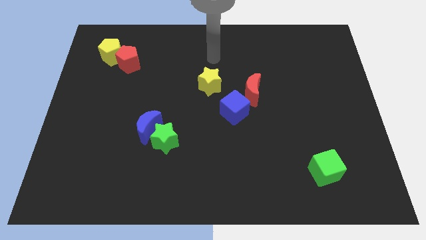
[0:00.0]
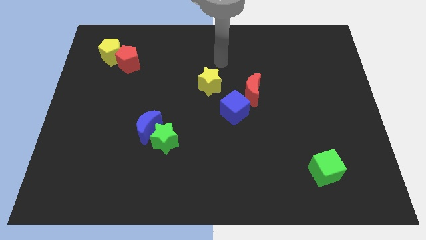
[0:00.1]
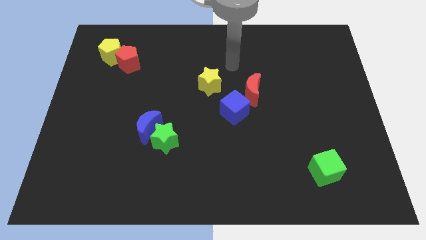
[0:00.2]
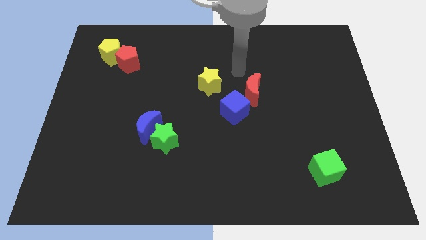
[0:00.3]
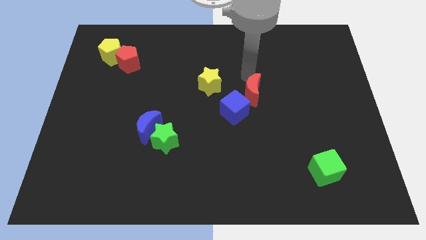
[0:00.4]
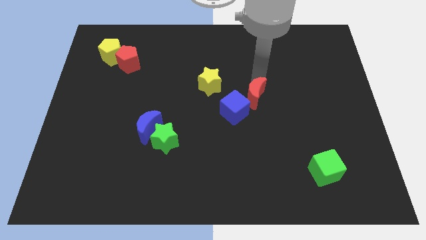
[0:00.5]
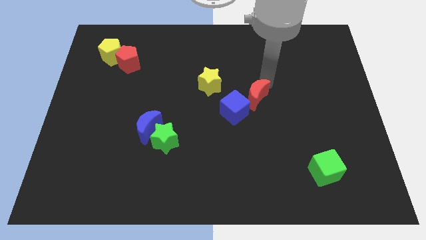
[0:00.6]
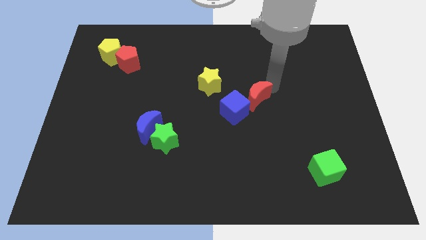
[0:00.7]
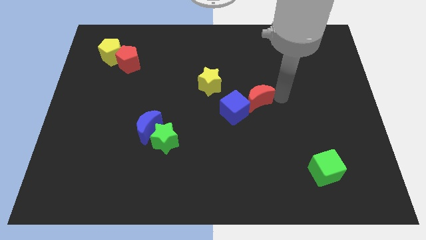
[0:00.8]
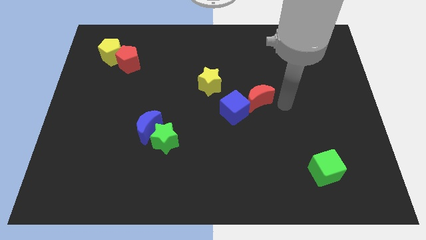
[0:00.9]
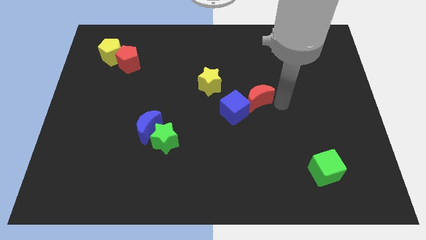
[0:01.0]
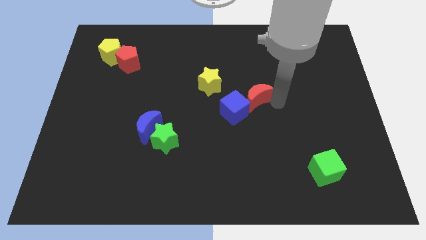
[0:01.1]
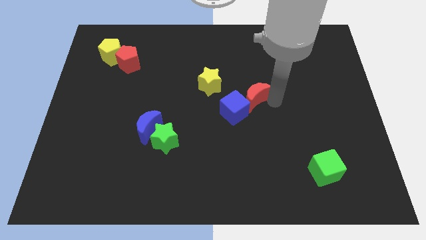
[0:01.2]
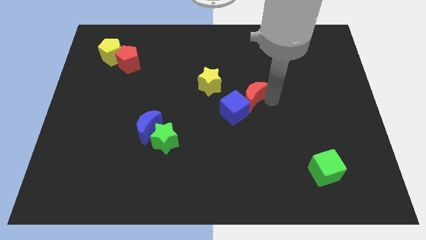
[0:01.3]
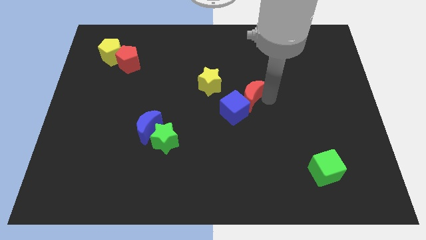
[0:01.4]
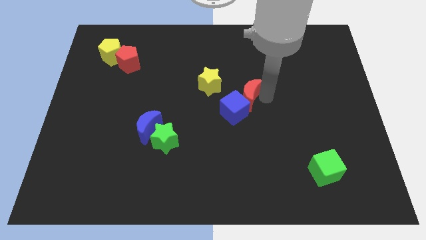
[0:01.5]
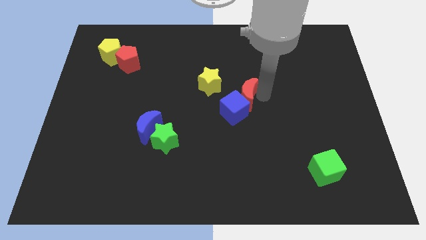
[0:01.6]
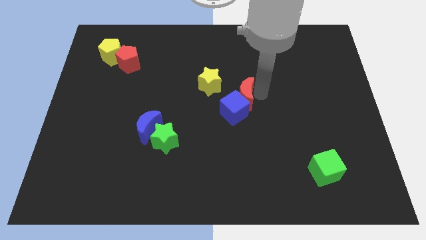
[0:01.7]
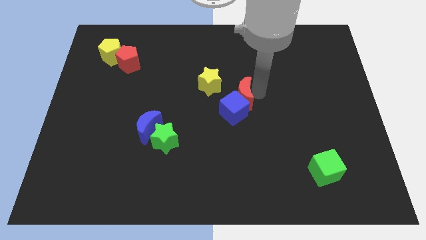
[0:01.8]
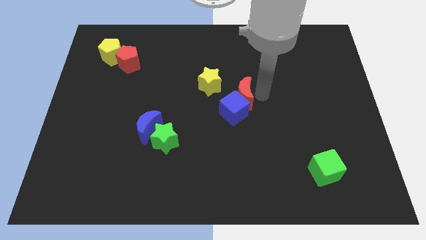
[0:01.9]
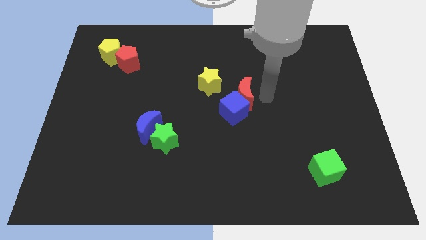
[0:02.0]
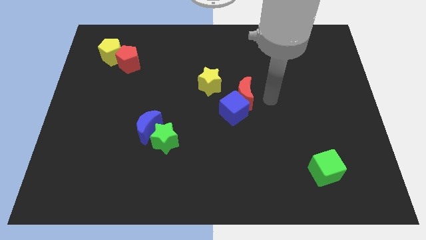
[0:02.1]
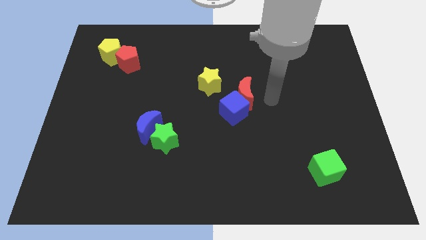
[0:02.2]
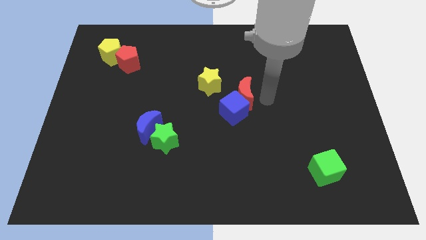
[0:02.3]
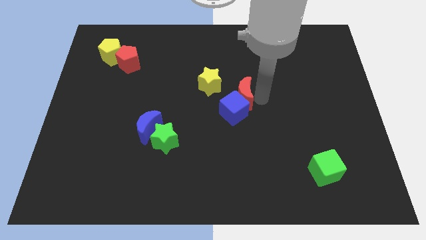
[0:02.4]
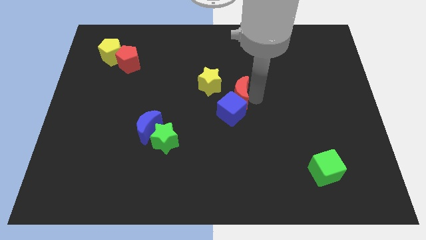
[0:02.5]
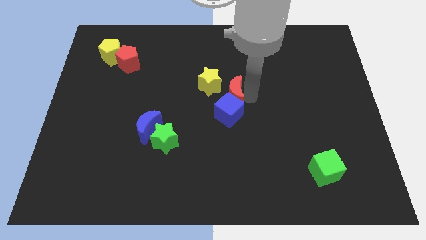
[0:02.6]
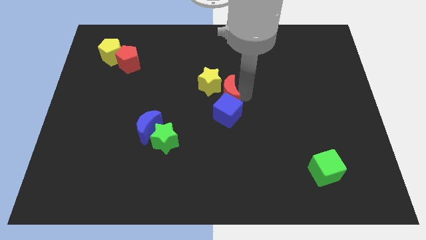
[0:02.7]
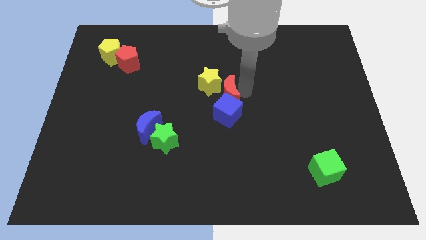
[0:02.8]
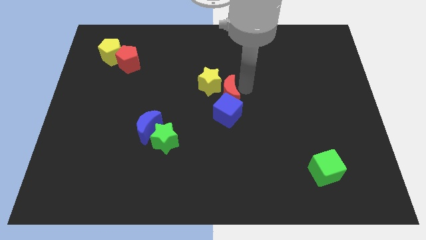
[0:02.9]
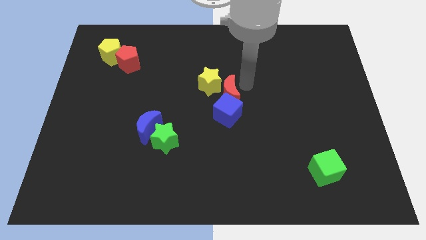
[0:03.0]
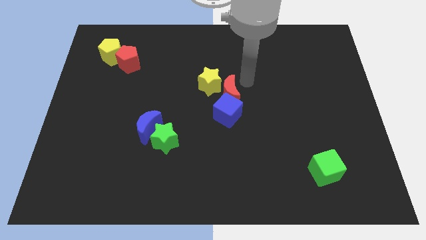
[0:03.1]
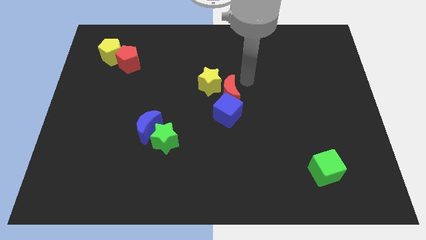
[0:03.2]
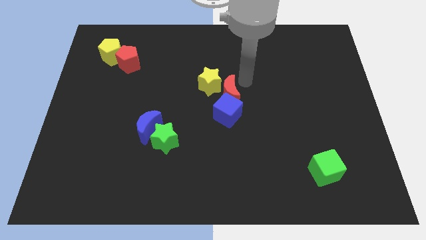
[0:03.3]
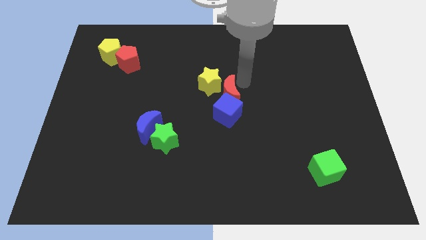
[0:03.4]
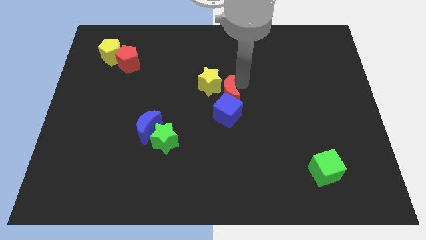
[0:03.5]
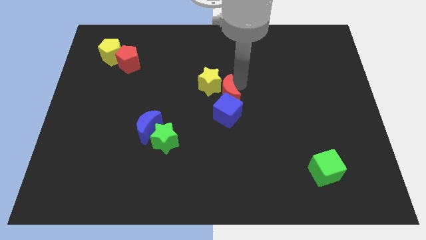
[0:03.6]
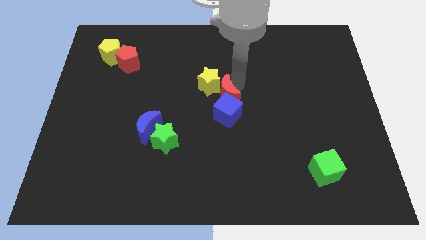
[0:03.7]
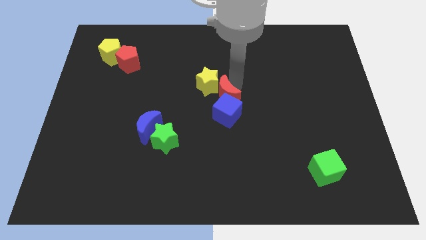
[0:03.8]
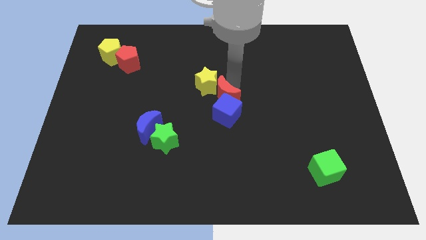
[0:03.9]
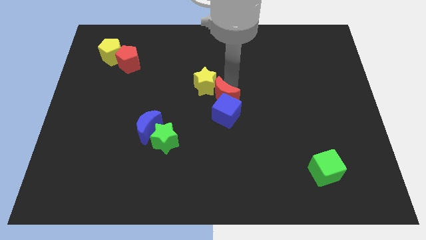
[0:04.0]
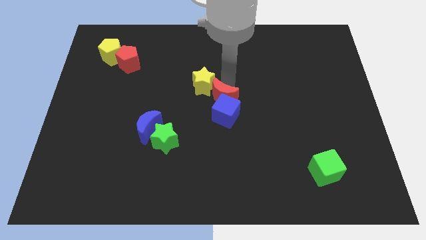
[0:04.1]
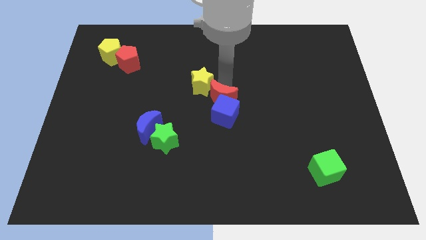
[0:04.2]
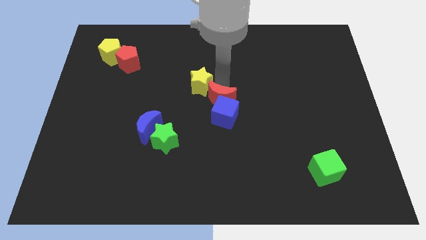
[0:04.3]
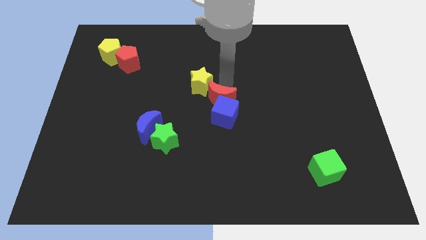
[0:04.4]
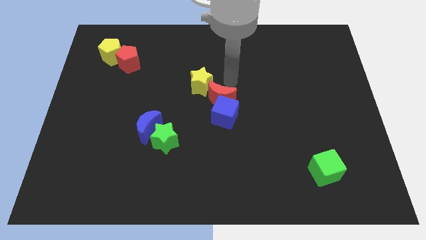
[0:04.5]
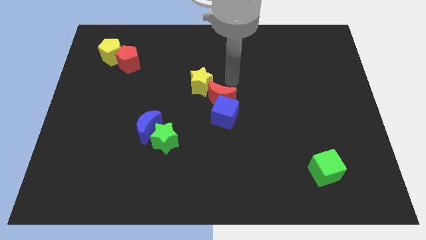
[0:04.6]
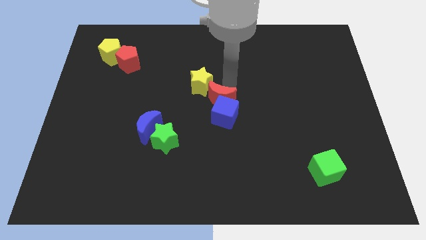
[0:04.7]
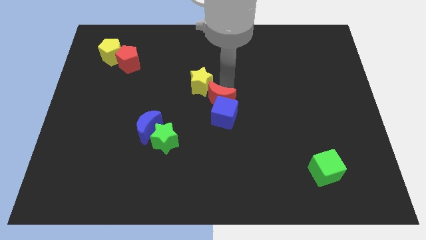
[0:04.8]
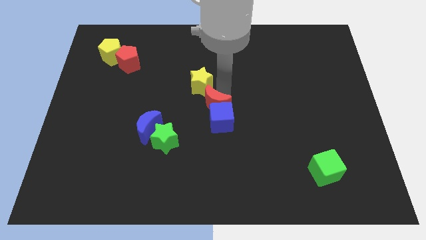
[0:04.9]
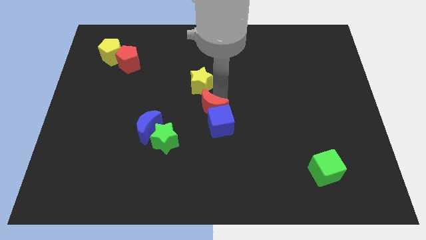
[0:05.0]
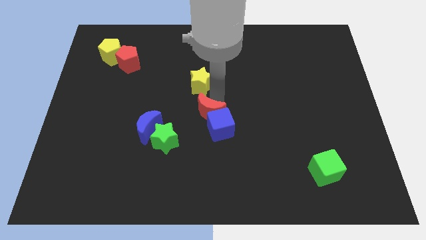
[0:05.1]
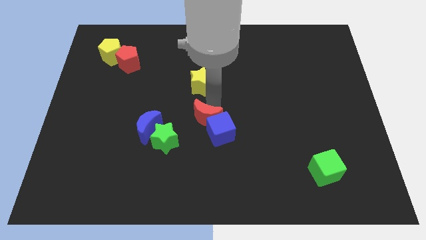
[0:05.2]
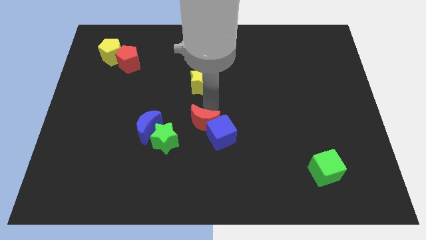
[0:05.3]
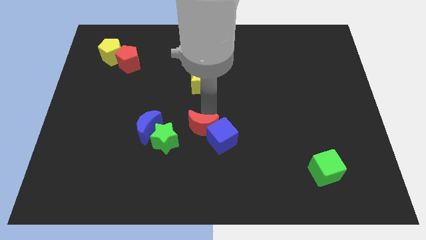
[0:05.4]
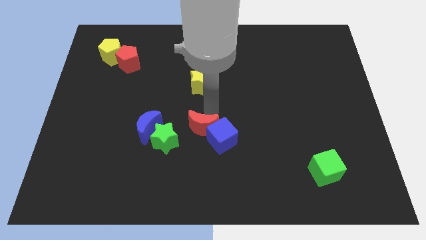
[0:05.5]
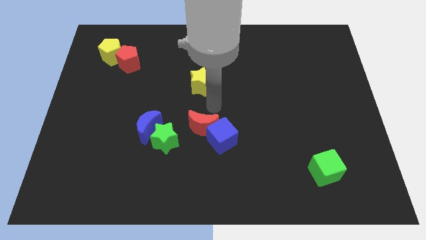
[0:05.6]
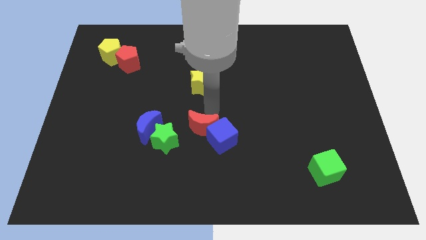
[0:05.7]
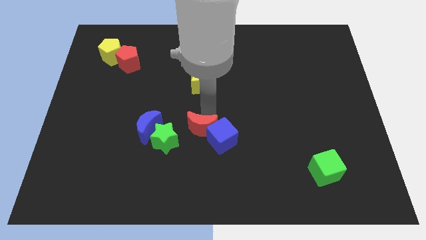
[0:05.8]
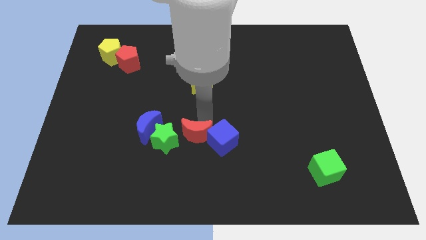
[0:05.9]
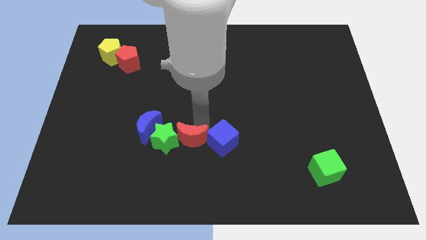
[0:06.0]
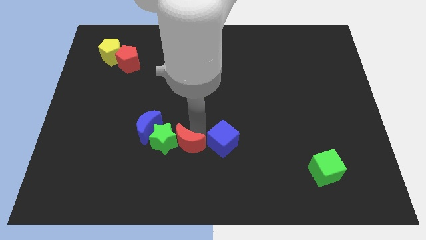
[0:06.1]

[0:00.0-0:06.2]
push the red moon downwards and to the left diagonally

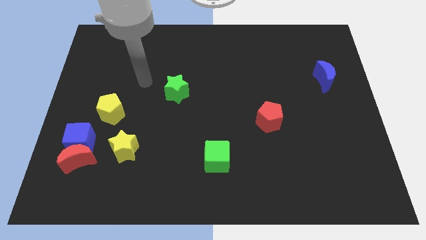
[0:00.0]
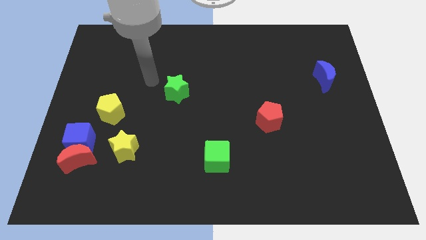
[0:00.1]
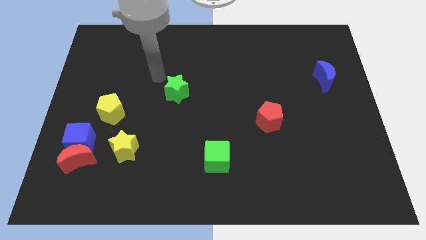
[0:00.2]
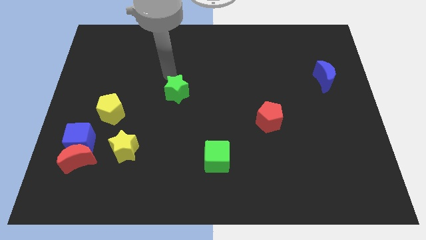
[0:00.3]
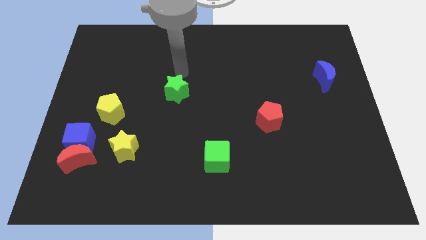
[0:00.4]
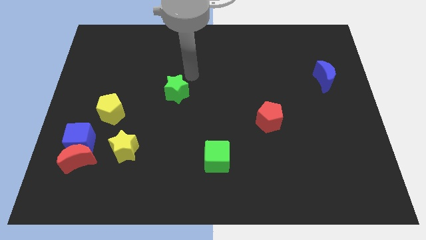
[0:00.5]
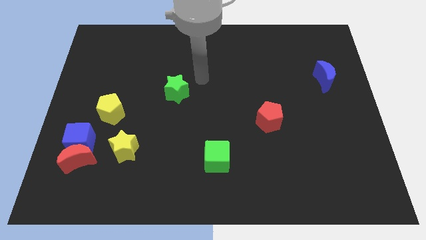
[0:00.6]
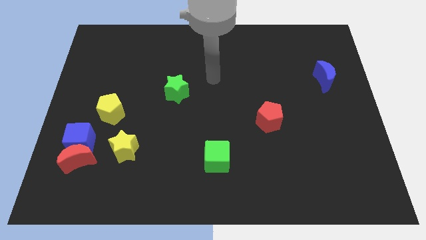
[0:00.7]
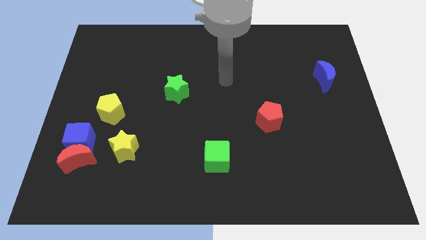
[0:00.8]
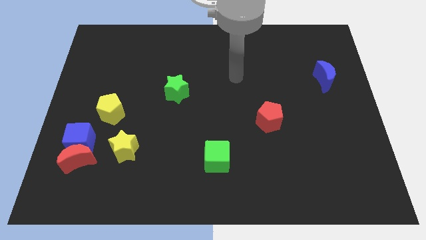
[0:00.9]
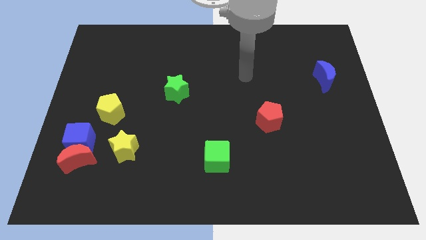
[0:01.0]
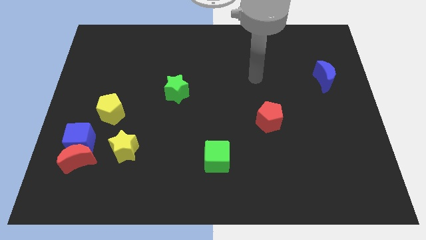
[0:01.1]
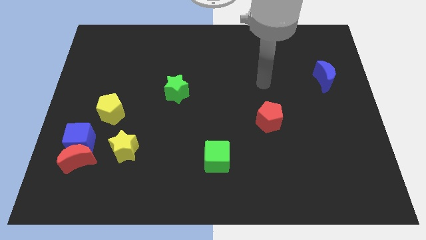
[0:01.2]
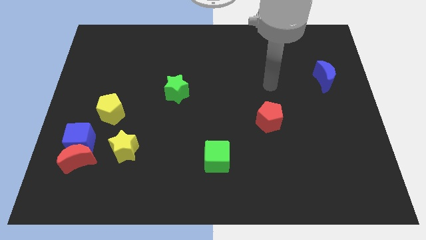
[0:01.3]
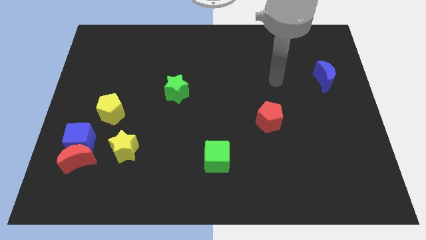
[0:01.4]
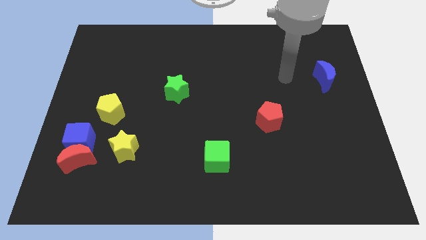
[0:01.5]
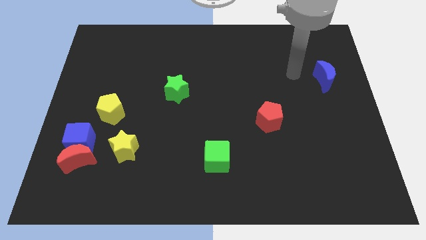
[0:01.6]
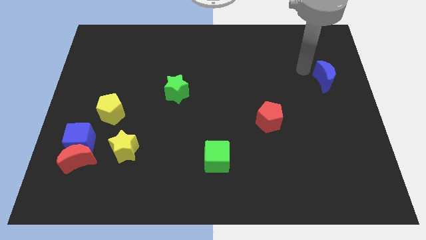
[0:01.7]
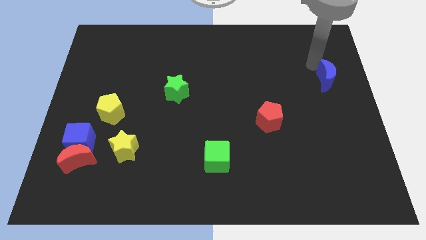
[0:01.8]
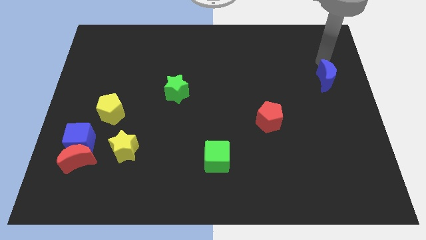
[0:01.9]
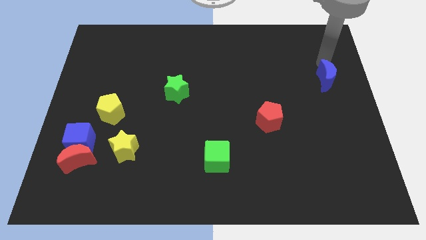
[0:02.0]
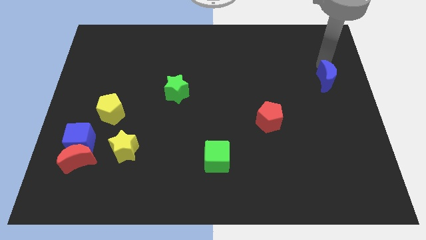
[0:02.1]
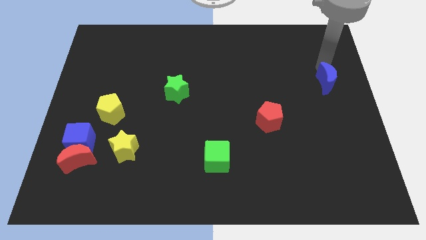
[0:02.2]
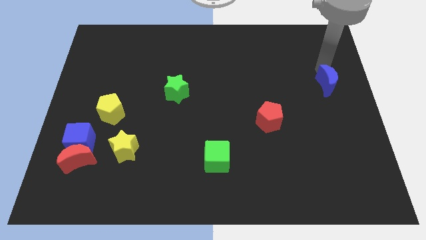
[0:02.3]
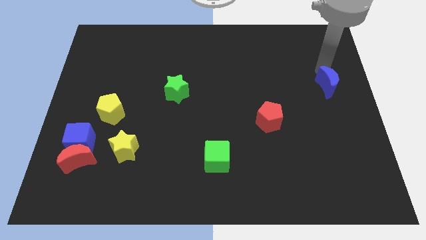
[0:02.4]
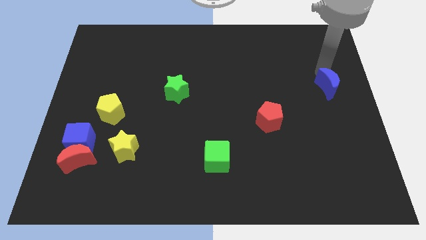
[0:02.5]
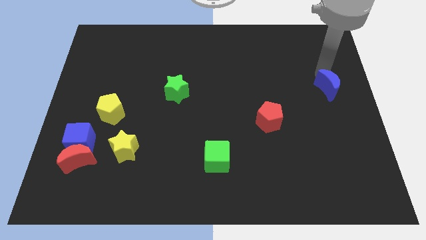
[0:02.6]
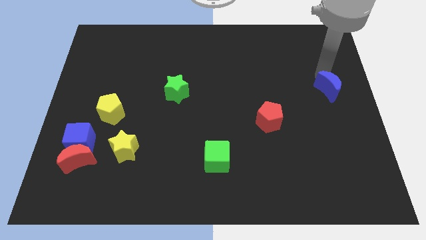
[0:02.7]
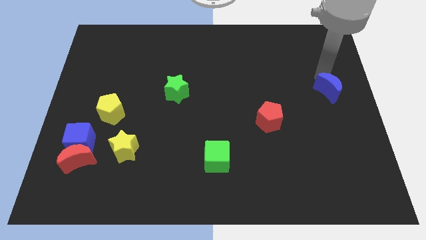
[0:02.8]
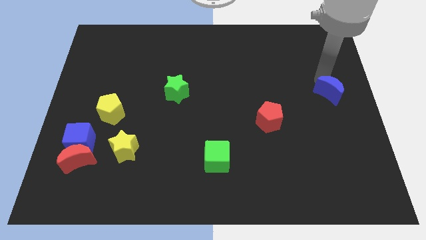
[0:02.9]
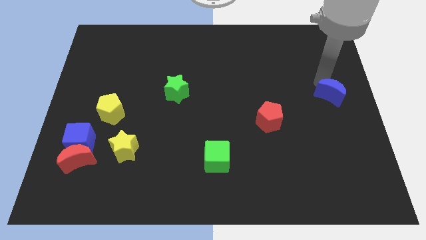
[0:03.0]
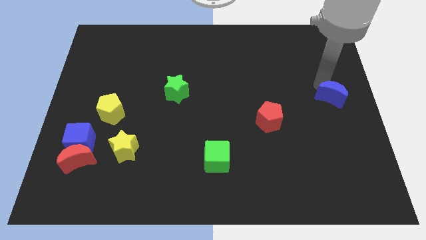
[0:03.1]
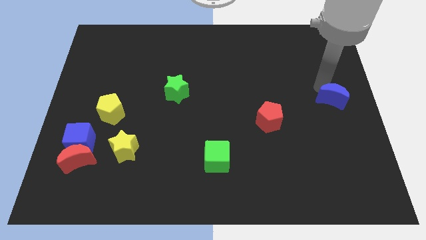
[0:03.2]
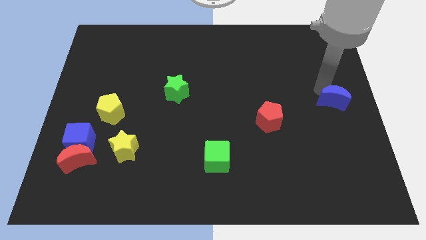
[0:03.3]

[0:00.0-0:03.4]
push the blue moon slightly downwards
